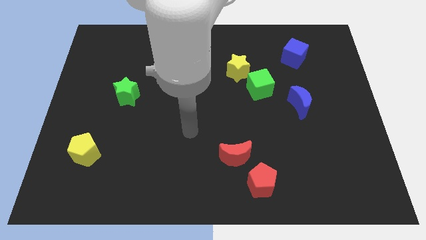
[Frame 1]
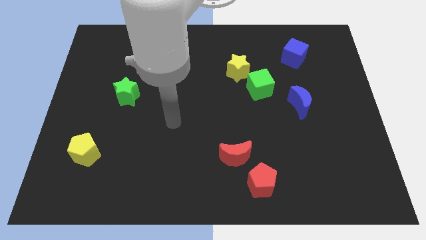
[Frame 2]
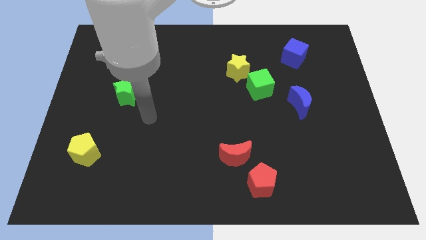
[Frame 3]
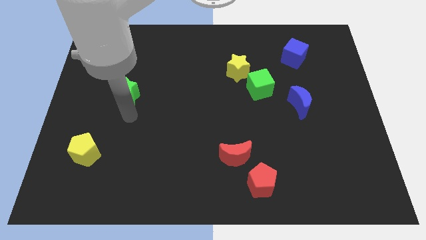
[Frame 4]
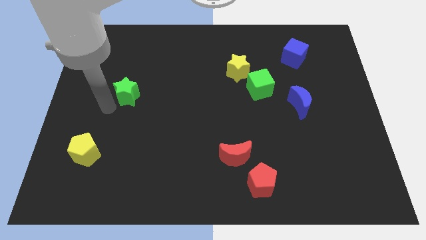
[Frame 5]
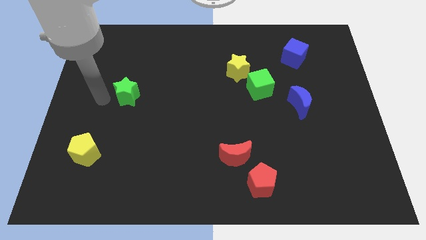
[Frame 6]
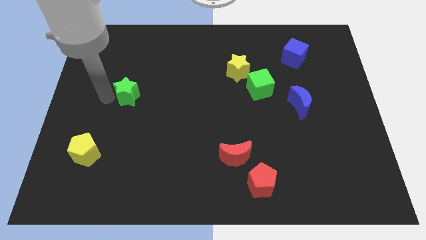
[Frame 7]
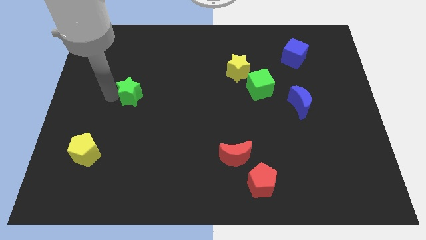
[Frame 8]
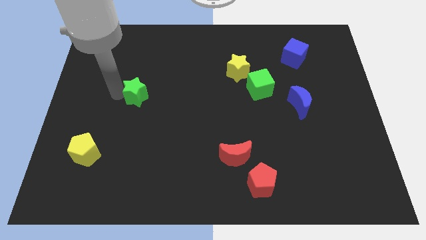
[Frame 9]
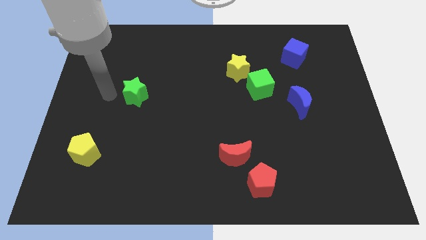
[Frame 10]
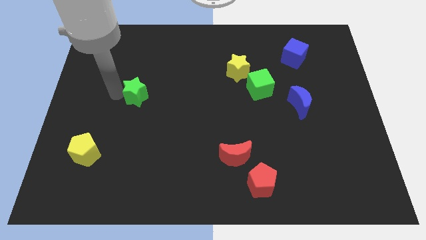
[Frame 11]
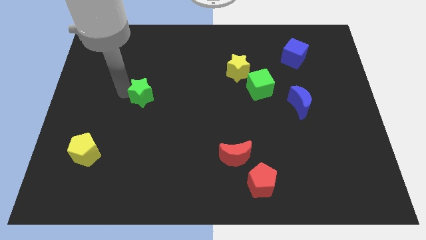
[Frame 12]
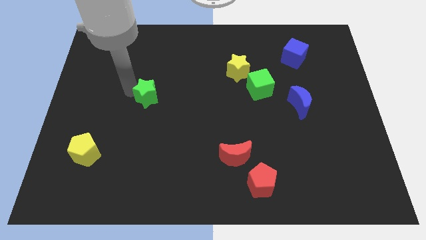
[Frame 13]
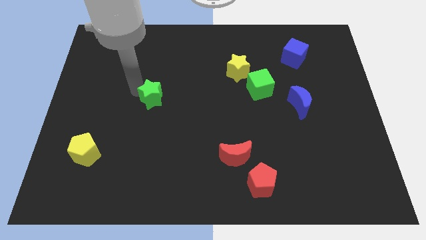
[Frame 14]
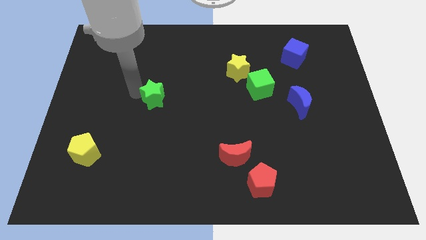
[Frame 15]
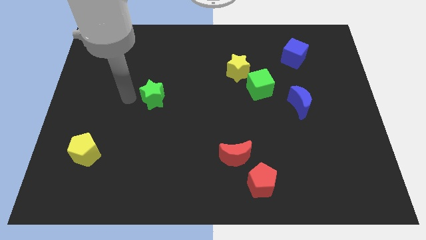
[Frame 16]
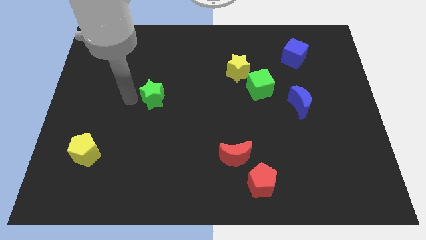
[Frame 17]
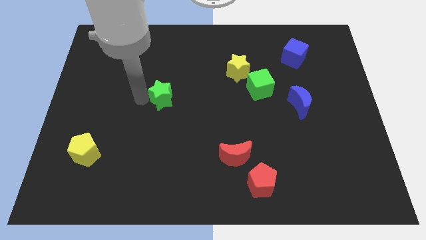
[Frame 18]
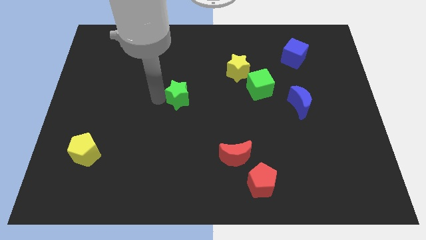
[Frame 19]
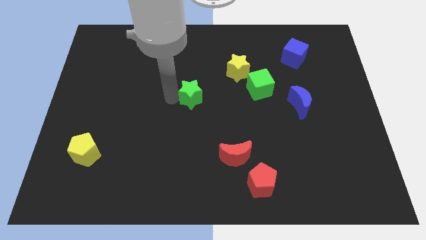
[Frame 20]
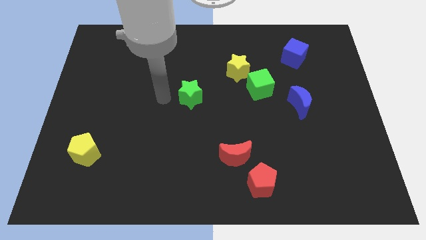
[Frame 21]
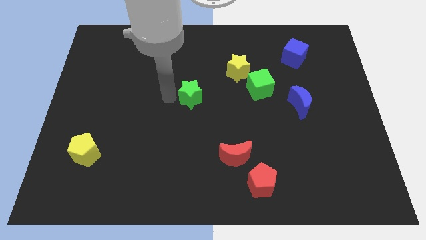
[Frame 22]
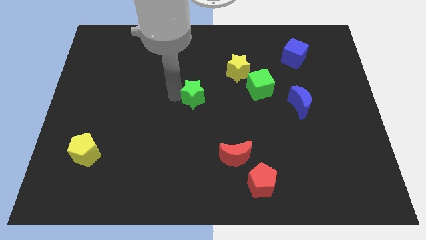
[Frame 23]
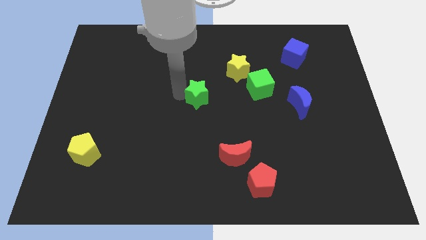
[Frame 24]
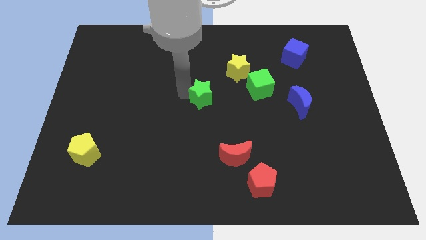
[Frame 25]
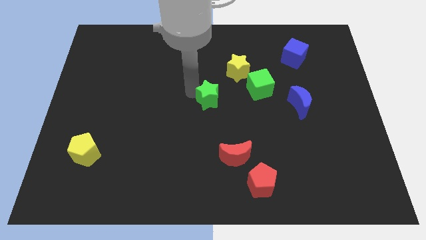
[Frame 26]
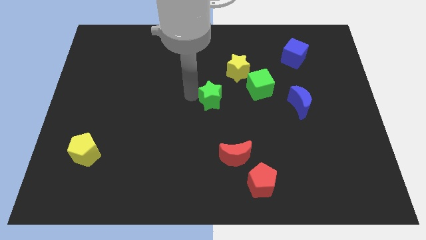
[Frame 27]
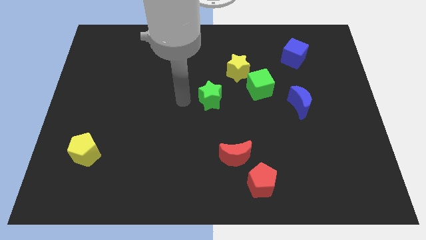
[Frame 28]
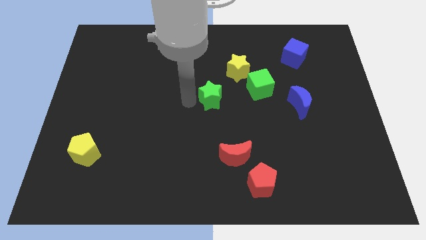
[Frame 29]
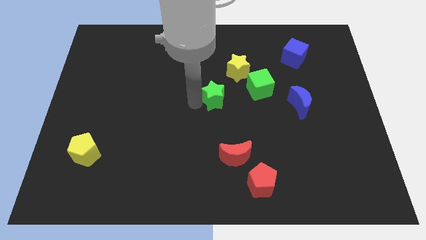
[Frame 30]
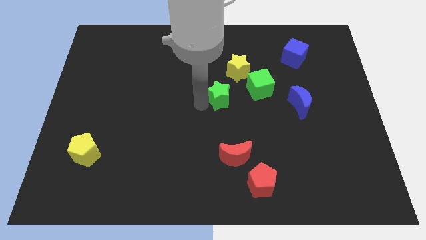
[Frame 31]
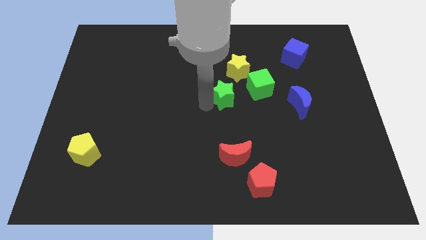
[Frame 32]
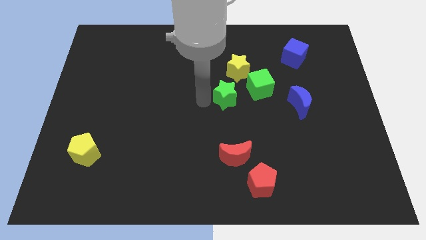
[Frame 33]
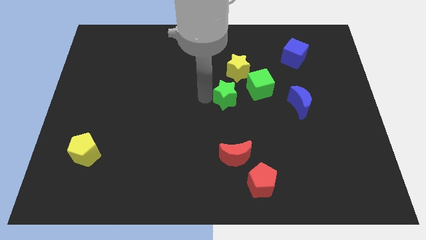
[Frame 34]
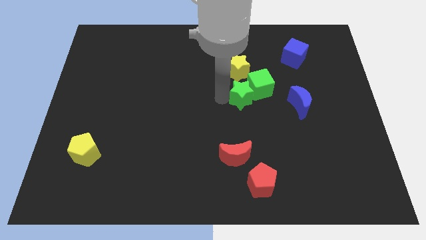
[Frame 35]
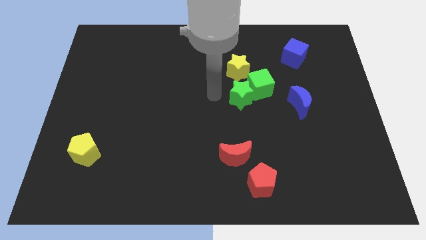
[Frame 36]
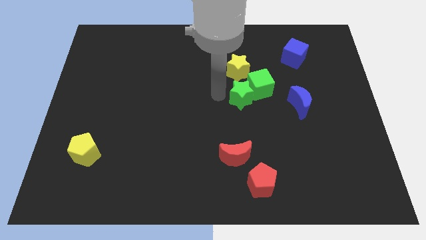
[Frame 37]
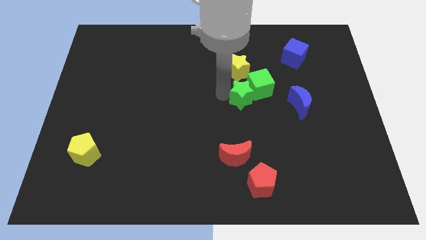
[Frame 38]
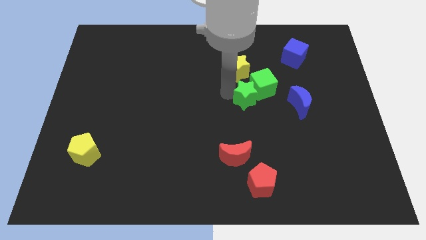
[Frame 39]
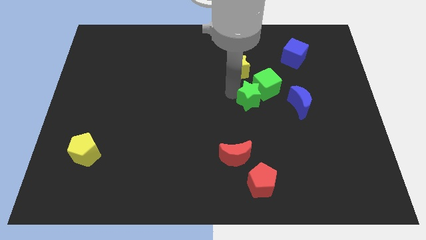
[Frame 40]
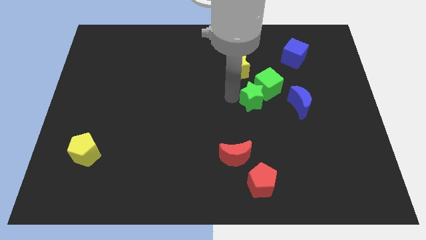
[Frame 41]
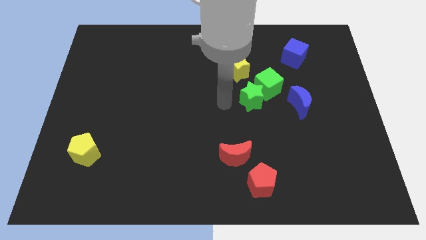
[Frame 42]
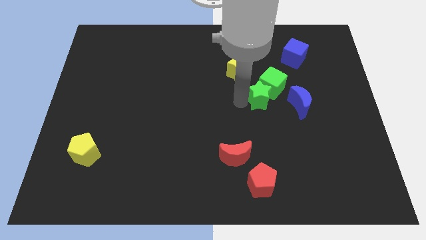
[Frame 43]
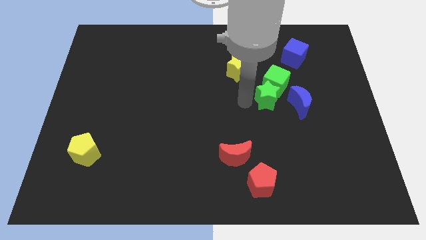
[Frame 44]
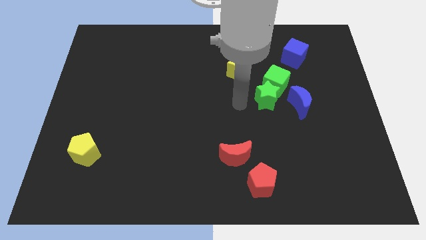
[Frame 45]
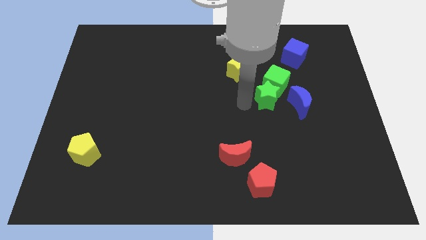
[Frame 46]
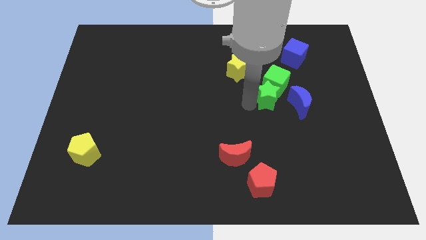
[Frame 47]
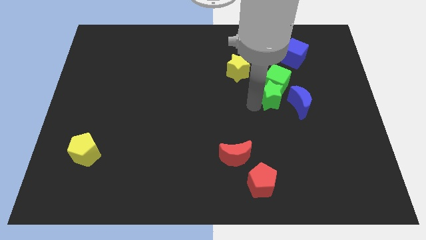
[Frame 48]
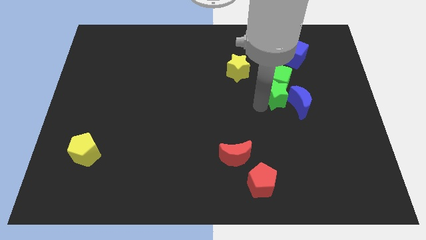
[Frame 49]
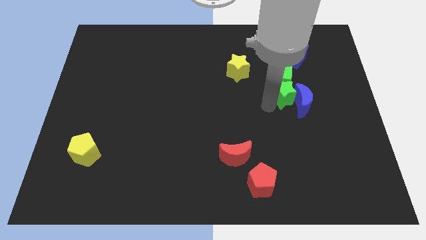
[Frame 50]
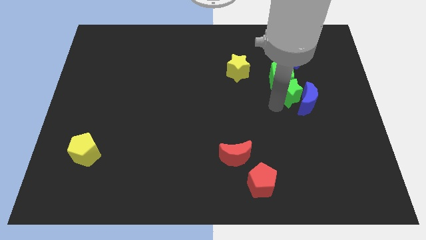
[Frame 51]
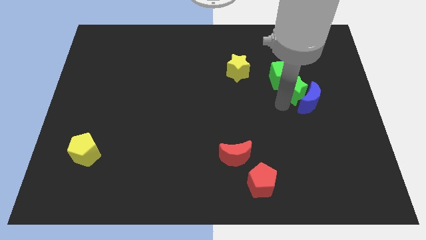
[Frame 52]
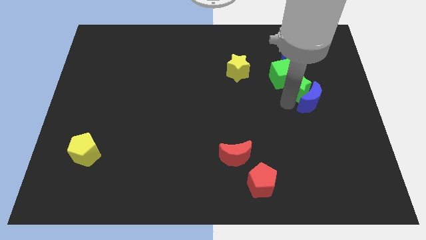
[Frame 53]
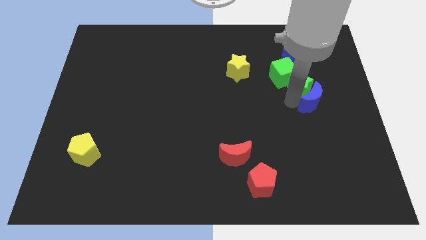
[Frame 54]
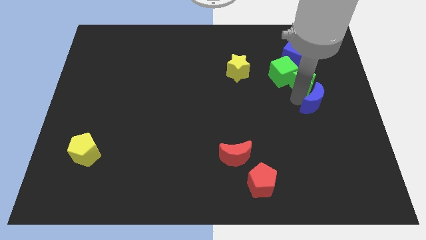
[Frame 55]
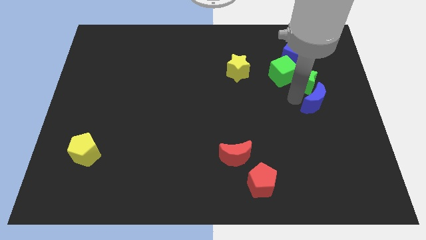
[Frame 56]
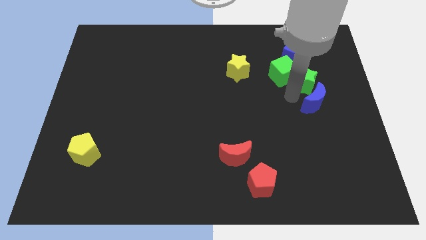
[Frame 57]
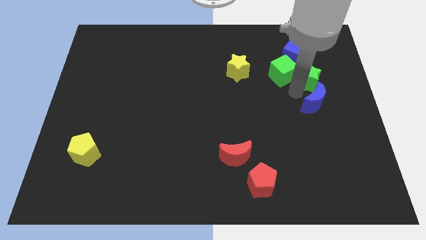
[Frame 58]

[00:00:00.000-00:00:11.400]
put the green star to the bottom right of the blue cube

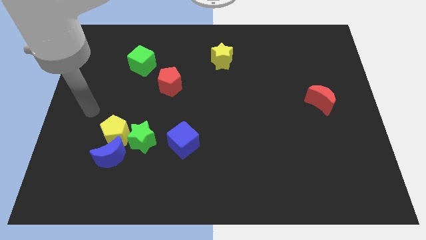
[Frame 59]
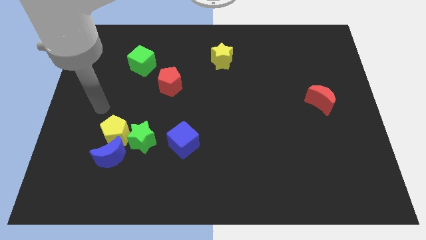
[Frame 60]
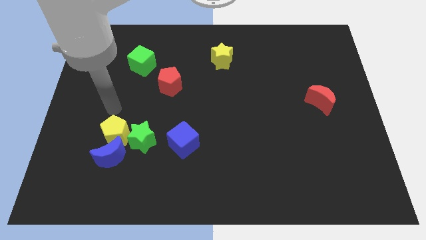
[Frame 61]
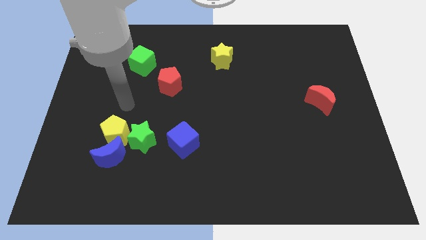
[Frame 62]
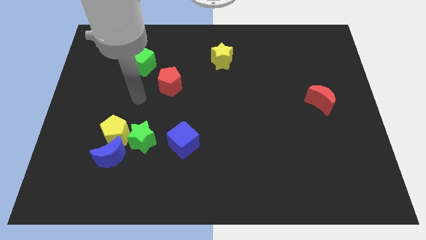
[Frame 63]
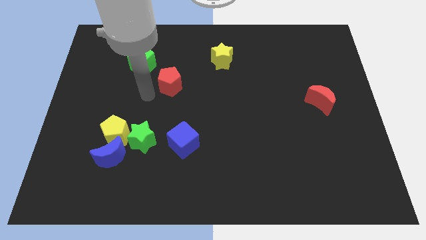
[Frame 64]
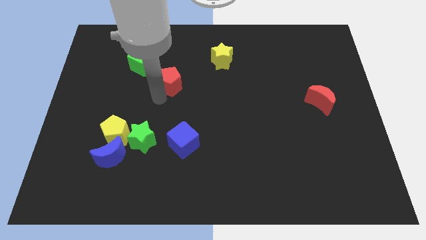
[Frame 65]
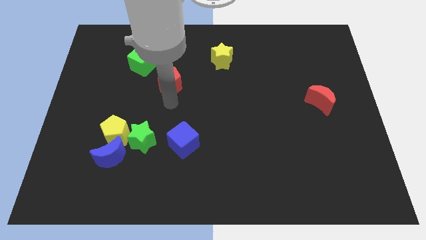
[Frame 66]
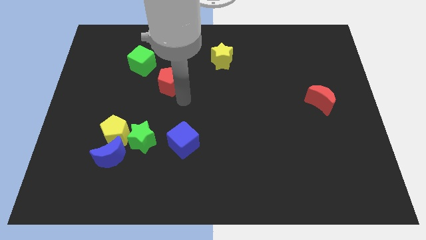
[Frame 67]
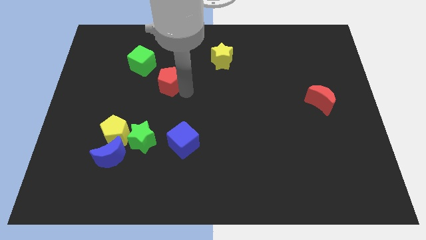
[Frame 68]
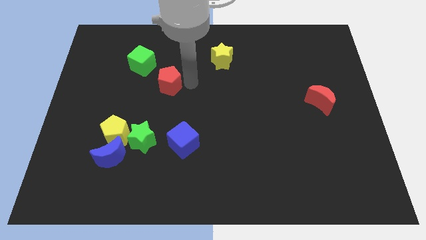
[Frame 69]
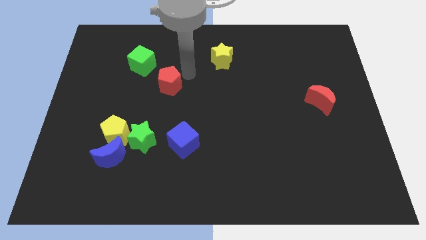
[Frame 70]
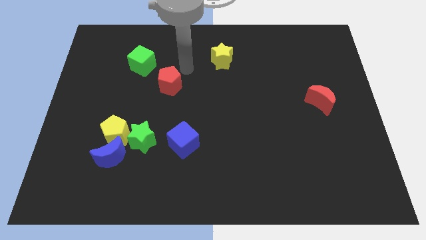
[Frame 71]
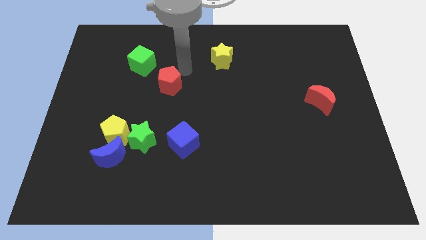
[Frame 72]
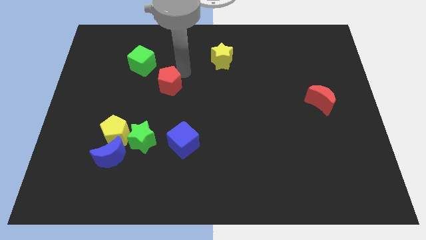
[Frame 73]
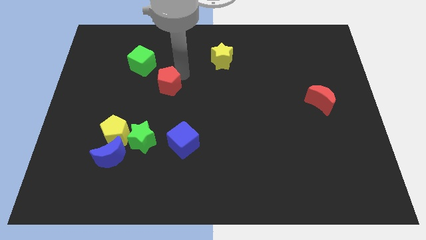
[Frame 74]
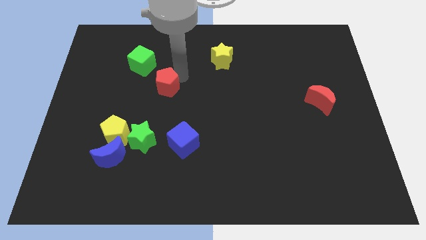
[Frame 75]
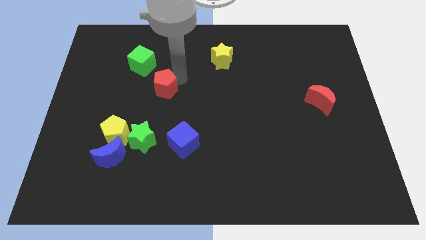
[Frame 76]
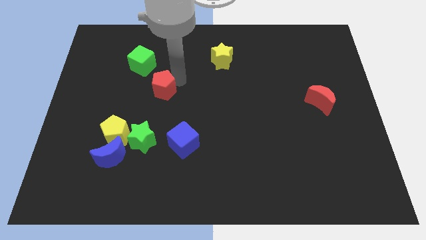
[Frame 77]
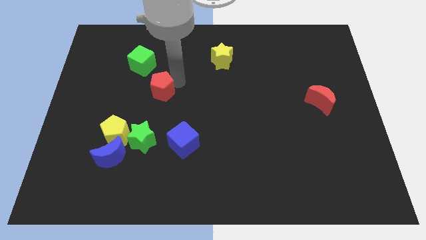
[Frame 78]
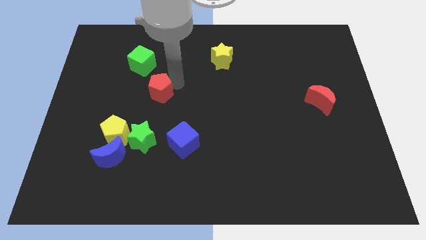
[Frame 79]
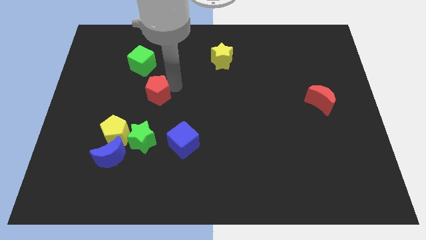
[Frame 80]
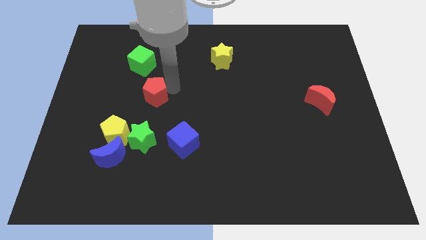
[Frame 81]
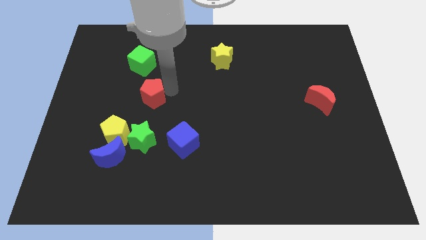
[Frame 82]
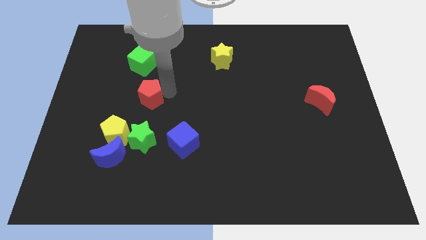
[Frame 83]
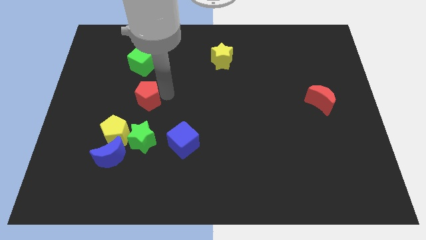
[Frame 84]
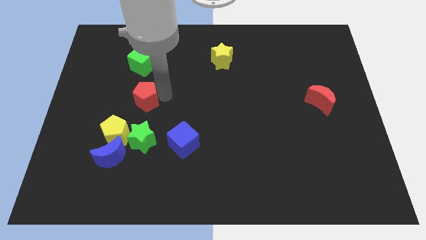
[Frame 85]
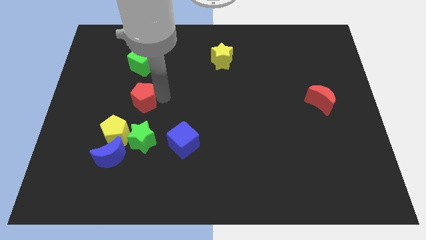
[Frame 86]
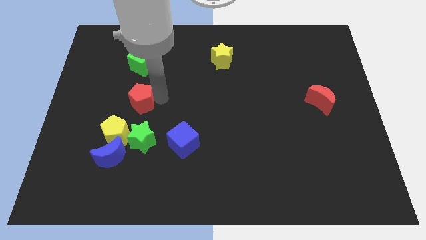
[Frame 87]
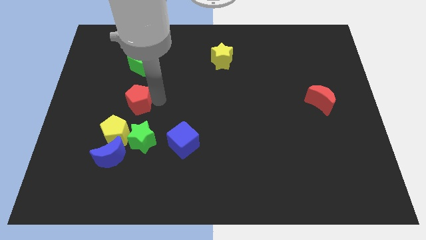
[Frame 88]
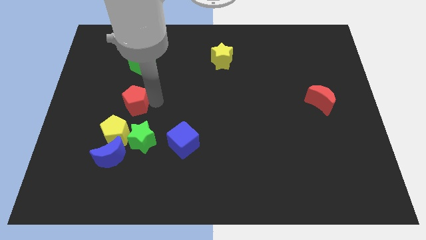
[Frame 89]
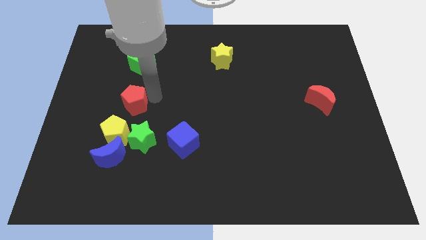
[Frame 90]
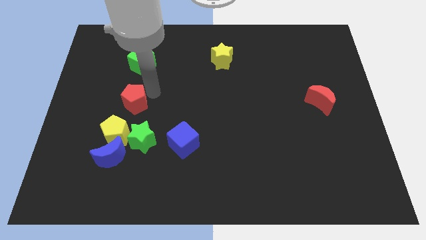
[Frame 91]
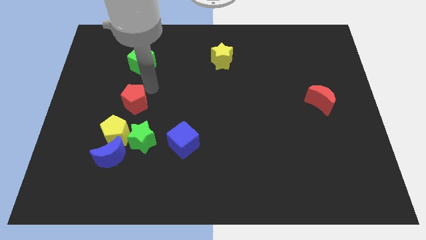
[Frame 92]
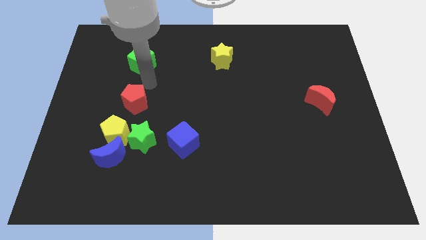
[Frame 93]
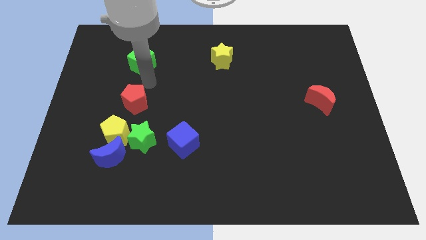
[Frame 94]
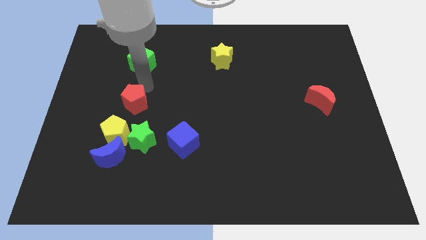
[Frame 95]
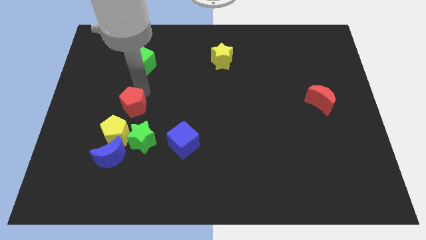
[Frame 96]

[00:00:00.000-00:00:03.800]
push the red pentagon to the top left side of the green star
